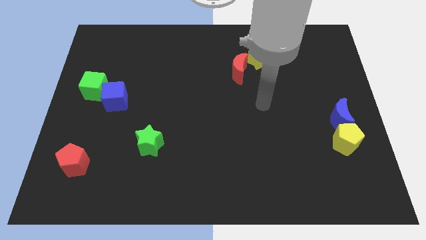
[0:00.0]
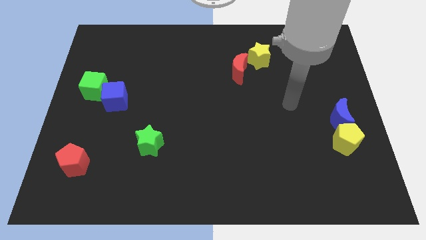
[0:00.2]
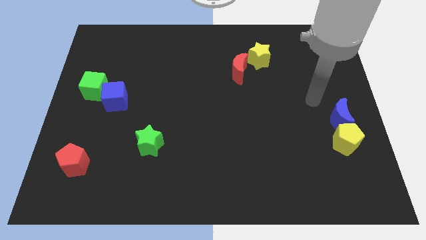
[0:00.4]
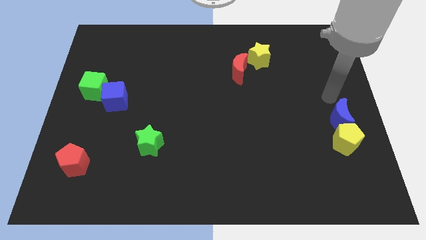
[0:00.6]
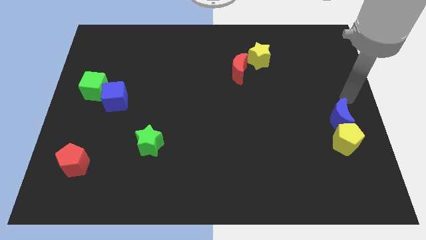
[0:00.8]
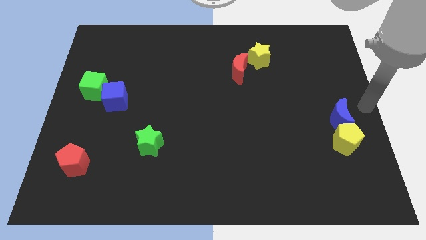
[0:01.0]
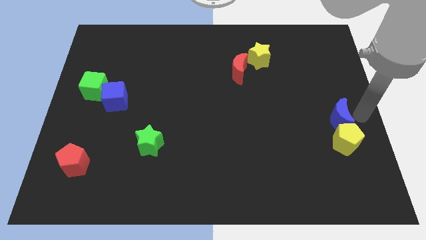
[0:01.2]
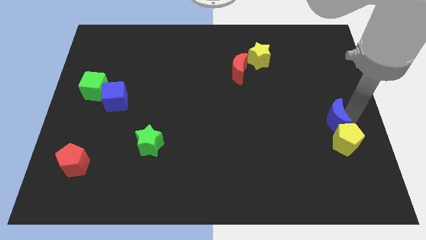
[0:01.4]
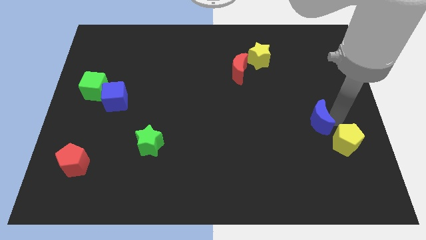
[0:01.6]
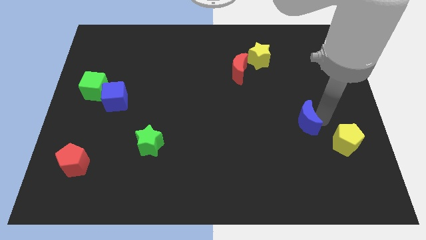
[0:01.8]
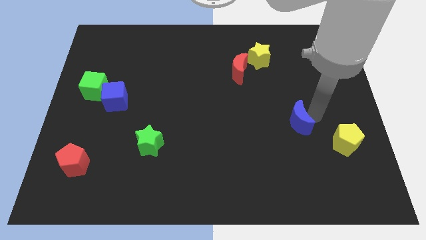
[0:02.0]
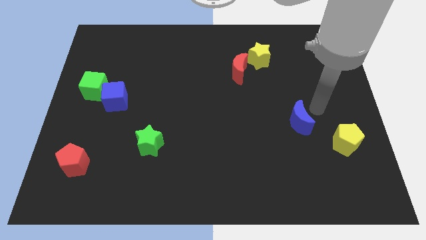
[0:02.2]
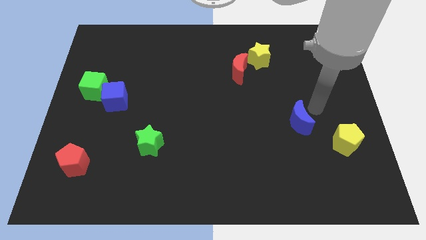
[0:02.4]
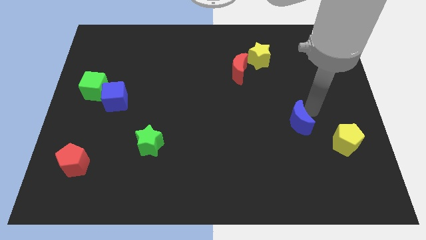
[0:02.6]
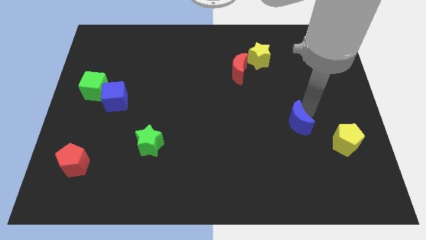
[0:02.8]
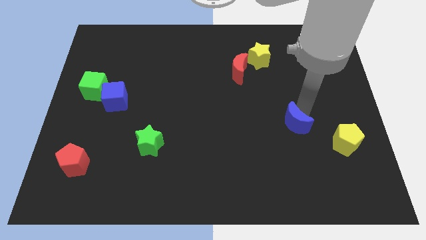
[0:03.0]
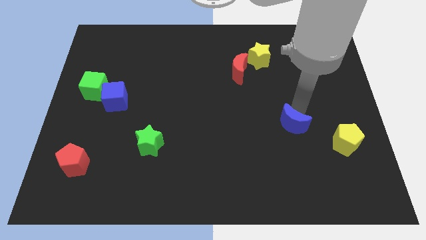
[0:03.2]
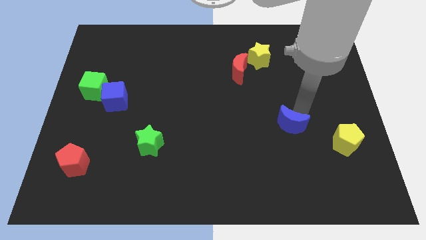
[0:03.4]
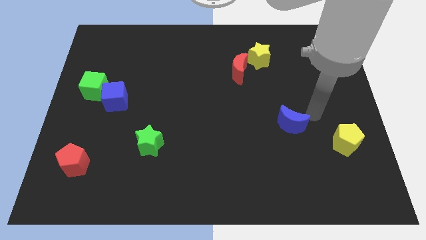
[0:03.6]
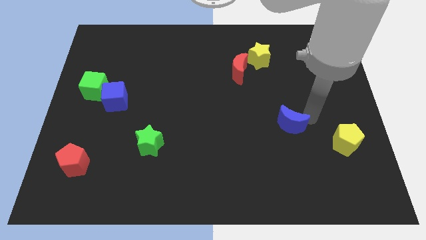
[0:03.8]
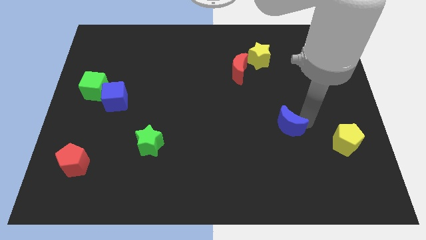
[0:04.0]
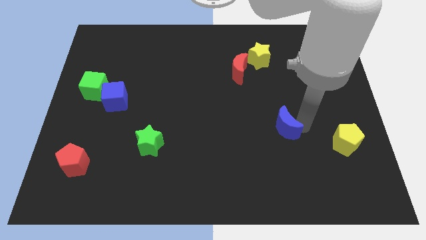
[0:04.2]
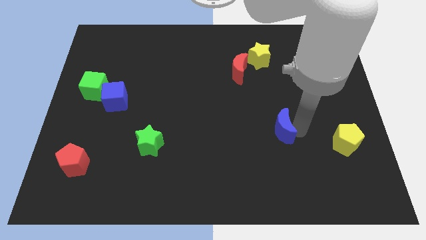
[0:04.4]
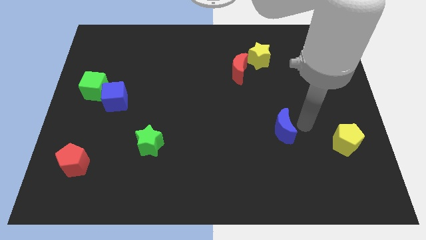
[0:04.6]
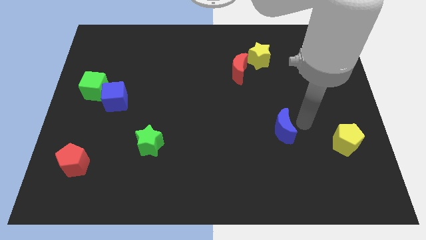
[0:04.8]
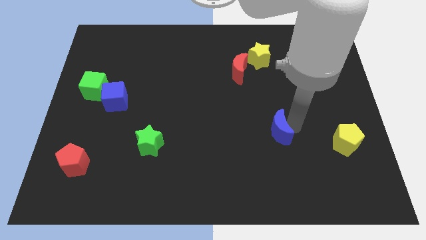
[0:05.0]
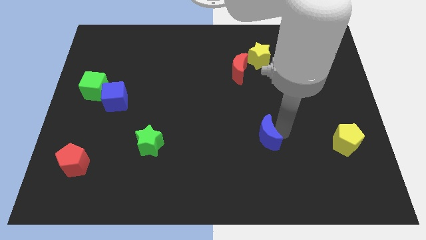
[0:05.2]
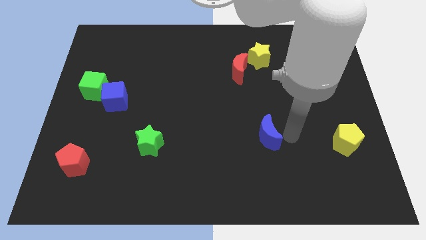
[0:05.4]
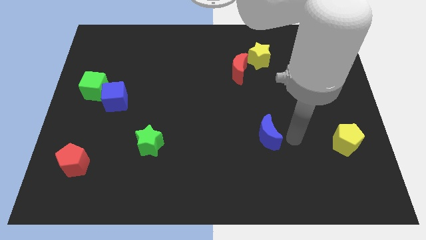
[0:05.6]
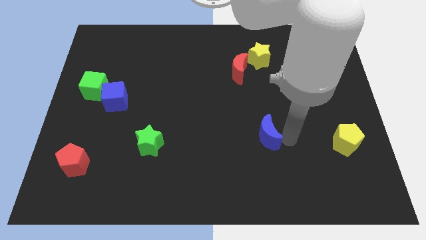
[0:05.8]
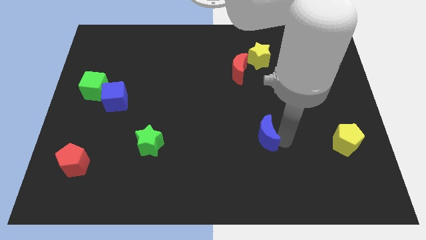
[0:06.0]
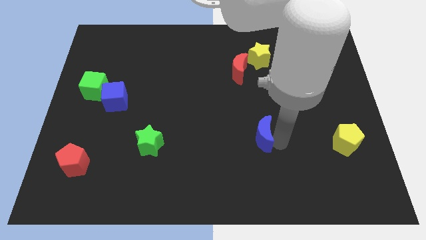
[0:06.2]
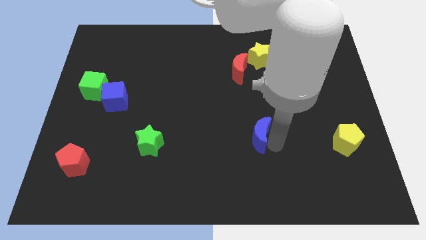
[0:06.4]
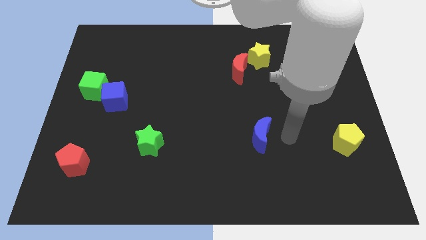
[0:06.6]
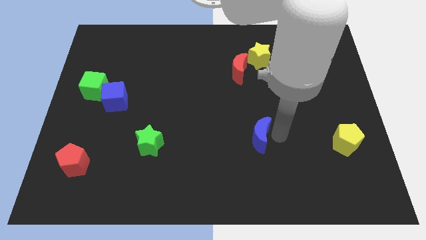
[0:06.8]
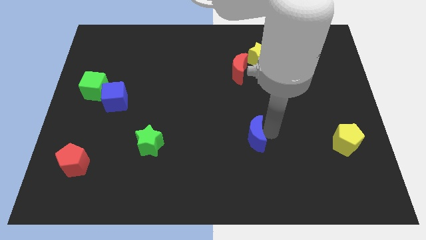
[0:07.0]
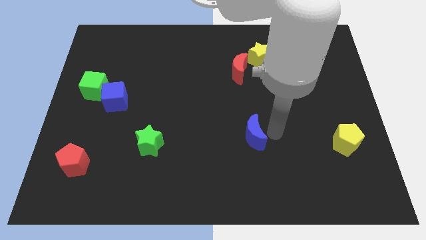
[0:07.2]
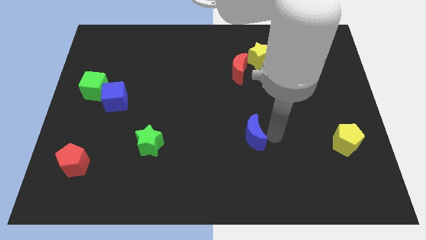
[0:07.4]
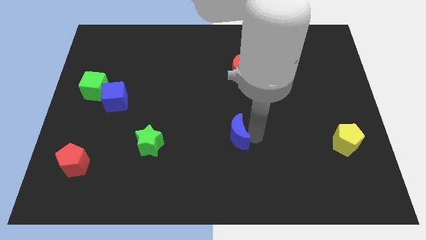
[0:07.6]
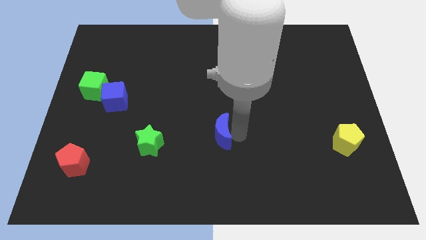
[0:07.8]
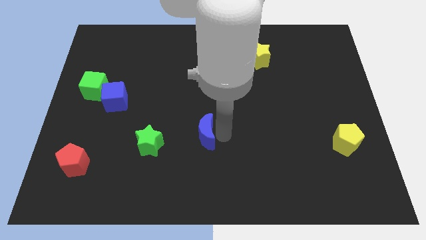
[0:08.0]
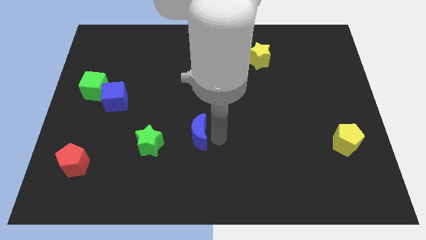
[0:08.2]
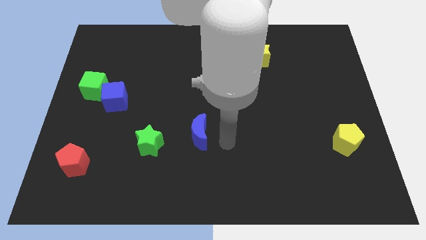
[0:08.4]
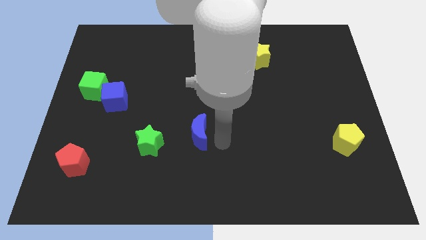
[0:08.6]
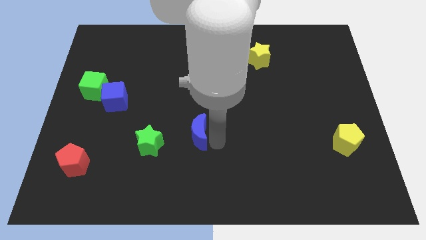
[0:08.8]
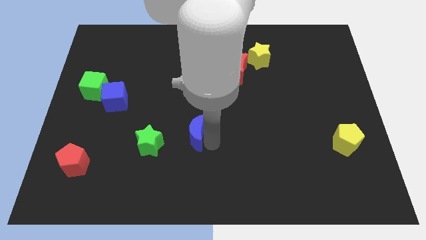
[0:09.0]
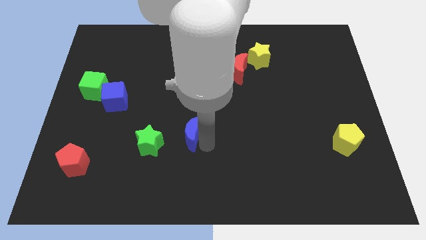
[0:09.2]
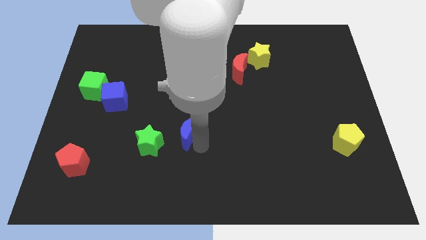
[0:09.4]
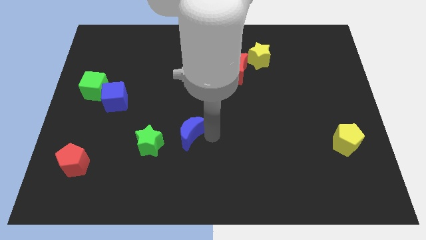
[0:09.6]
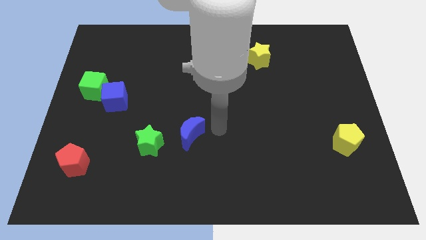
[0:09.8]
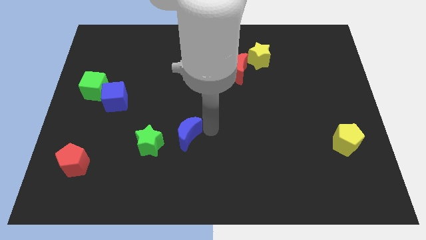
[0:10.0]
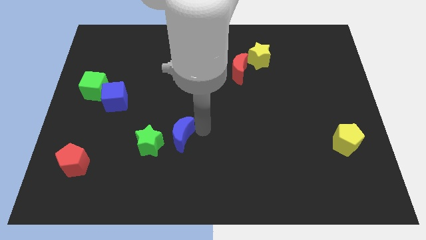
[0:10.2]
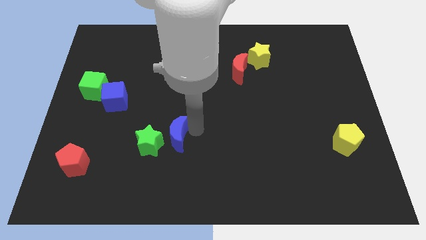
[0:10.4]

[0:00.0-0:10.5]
slide the blue moon to the green star

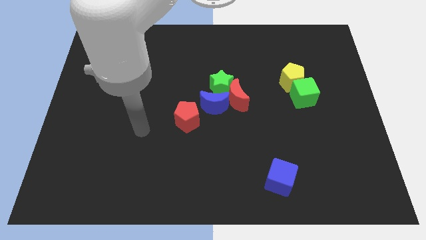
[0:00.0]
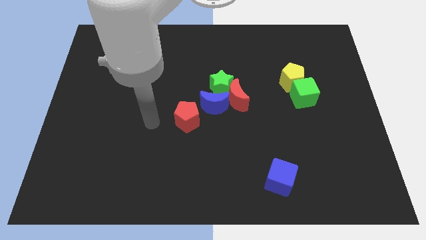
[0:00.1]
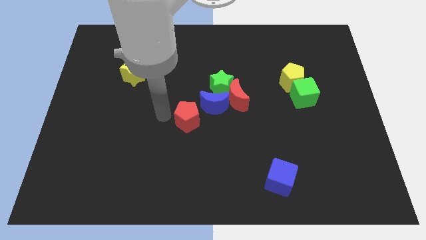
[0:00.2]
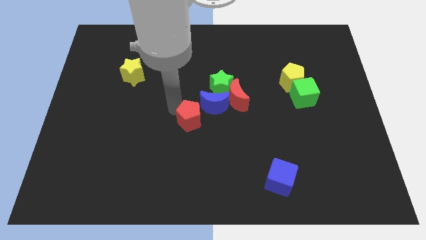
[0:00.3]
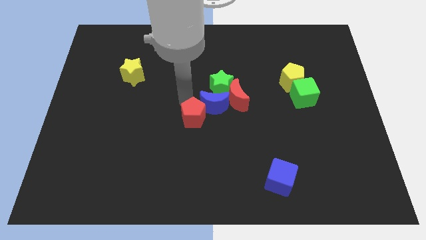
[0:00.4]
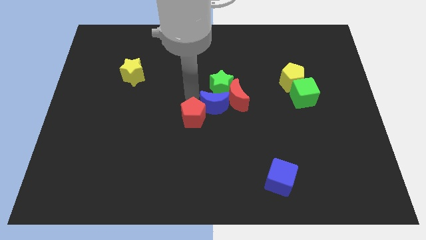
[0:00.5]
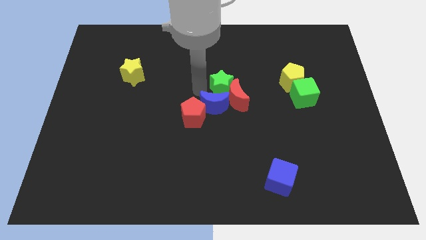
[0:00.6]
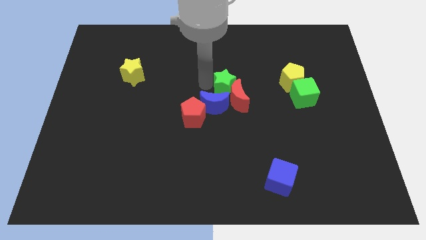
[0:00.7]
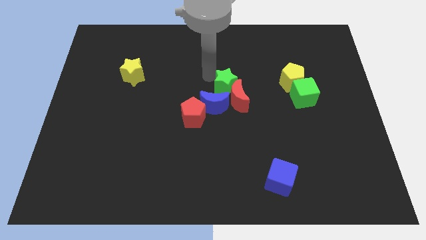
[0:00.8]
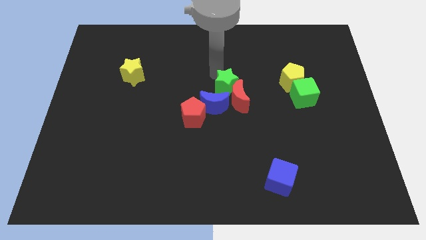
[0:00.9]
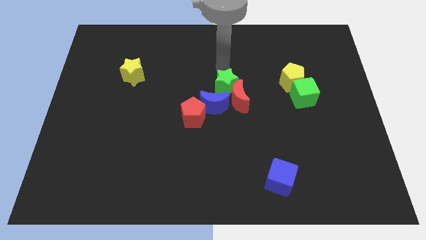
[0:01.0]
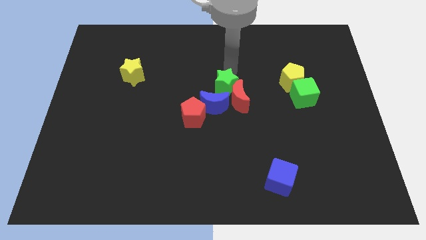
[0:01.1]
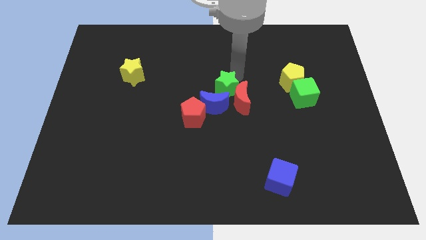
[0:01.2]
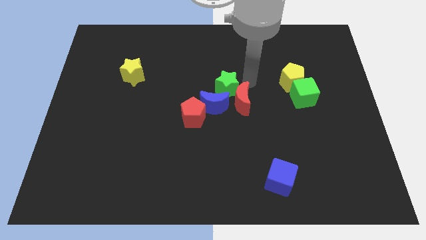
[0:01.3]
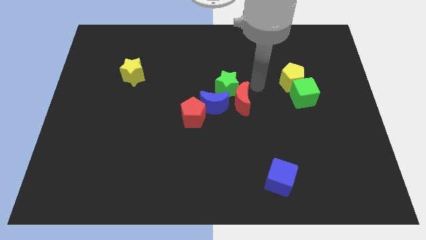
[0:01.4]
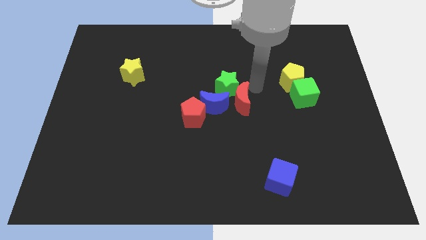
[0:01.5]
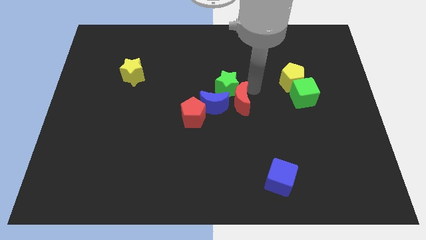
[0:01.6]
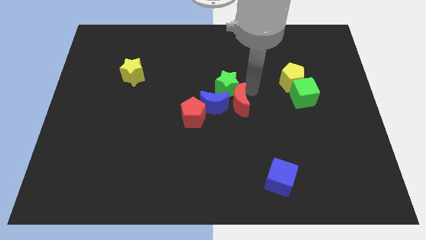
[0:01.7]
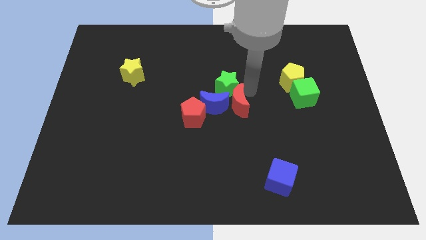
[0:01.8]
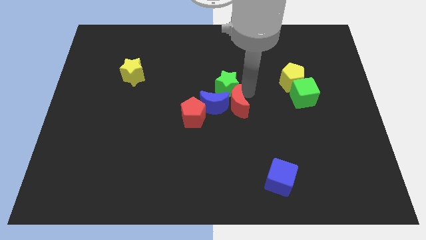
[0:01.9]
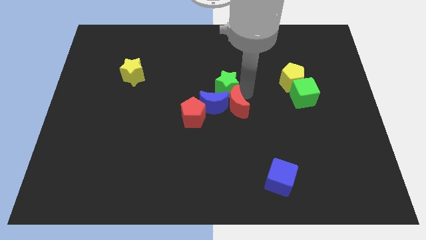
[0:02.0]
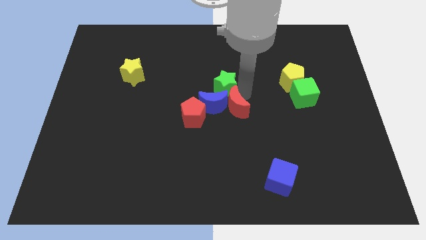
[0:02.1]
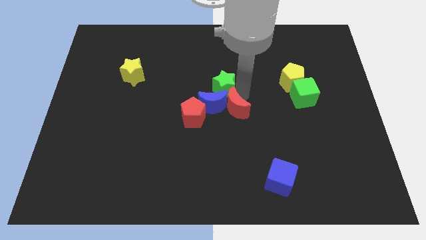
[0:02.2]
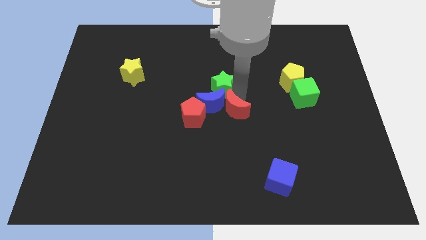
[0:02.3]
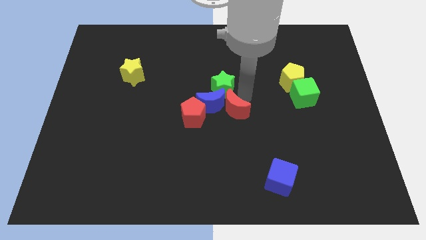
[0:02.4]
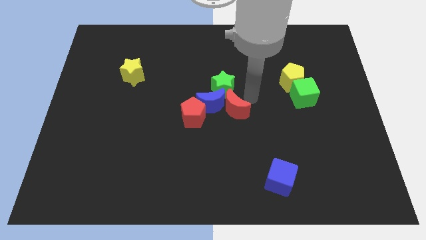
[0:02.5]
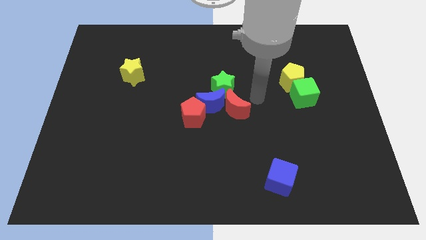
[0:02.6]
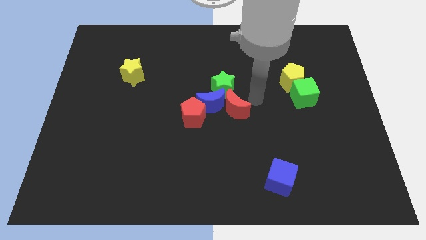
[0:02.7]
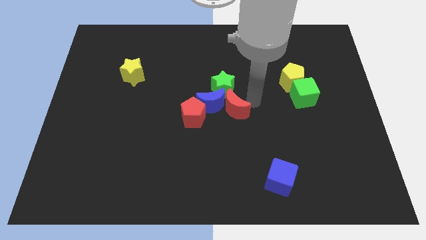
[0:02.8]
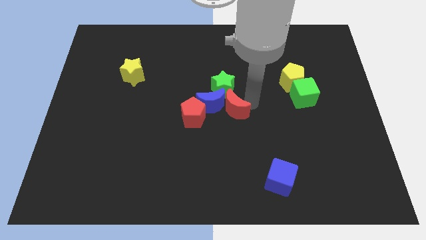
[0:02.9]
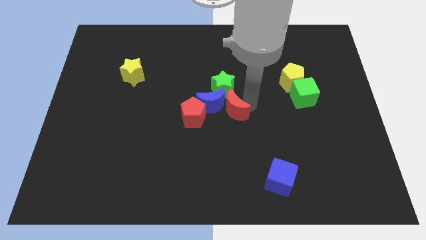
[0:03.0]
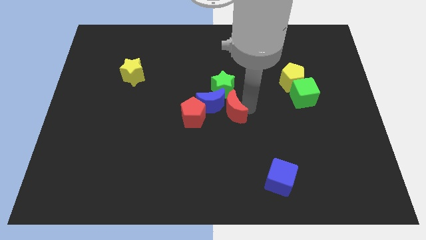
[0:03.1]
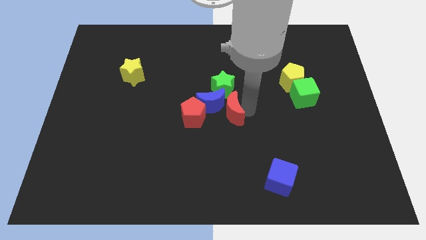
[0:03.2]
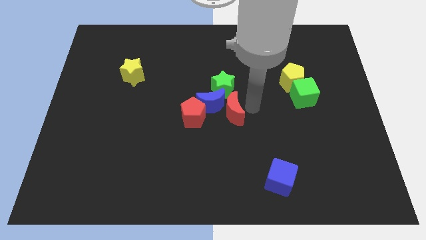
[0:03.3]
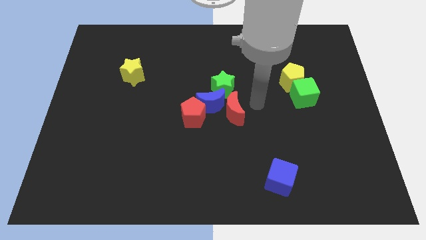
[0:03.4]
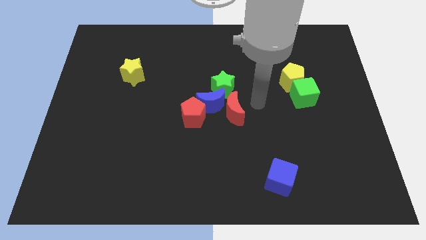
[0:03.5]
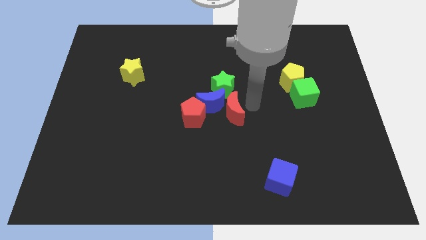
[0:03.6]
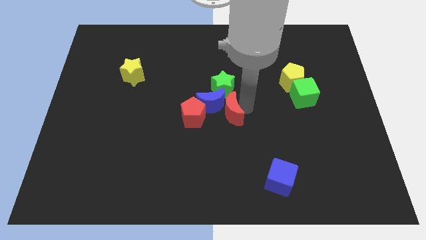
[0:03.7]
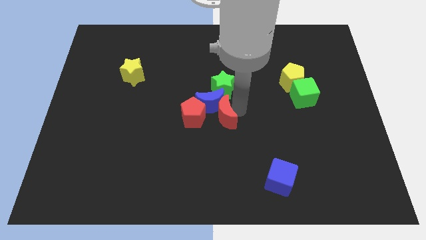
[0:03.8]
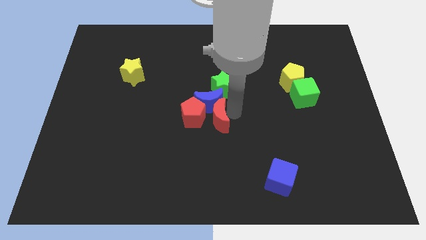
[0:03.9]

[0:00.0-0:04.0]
move the red moon next to the red pentagon
